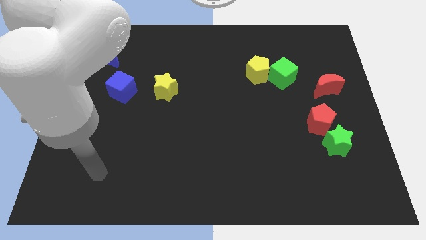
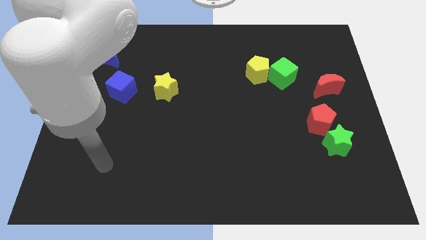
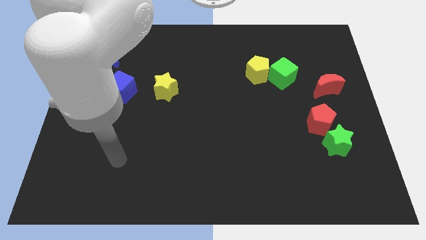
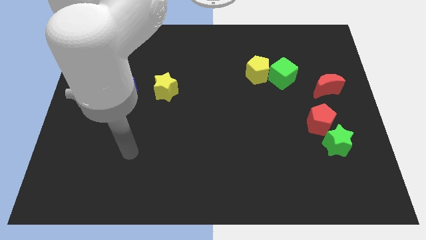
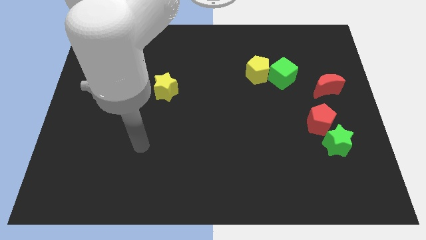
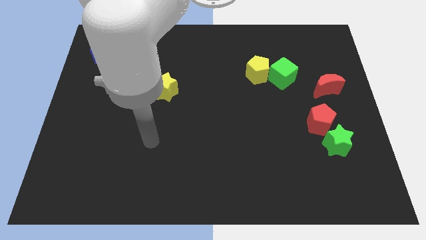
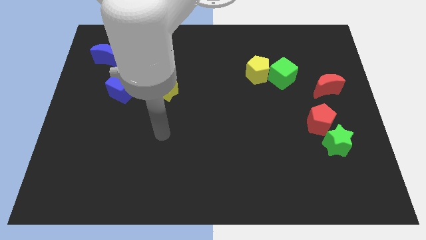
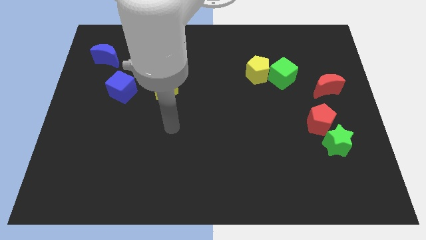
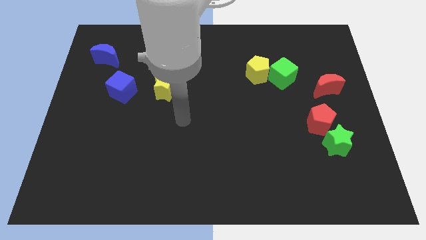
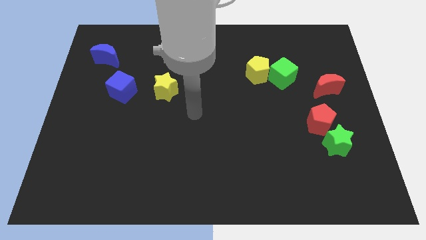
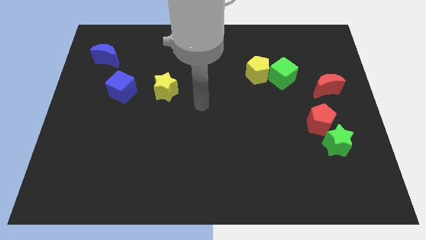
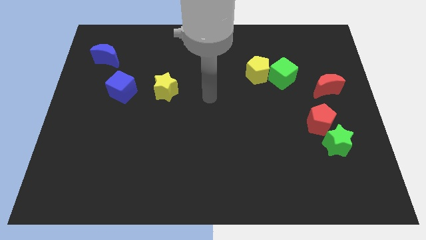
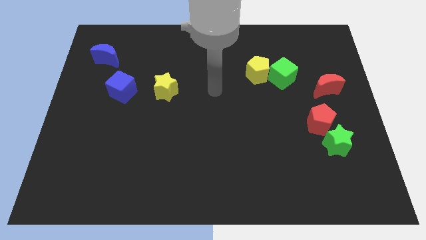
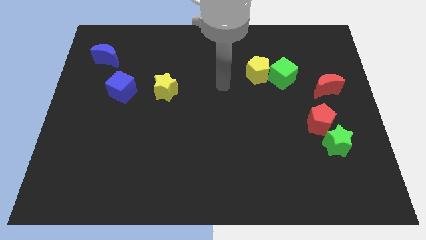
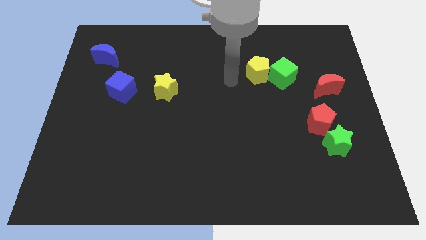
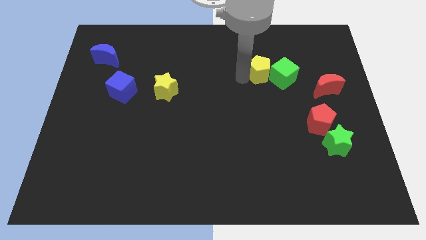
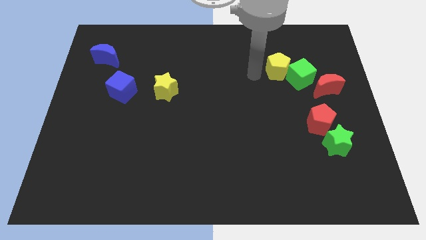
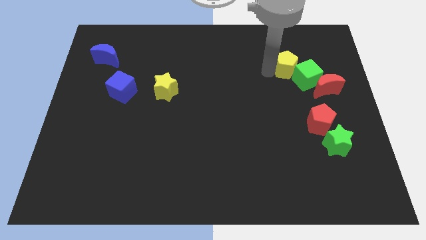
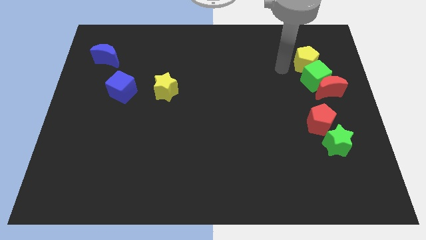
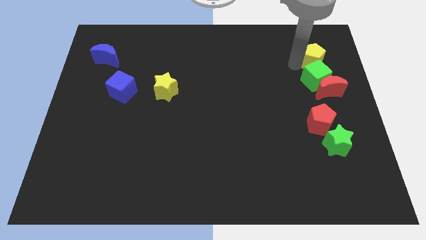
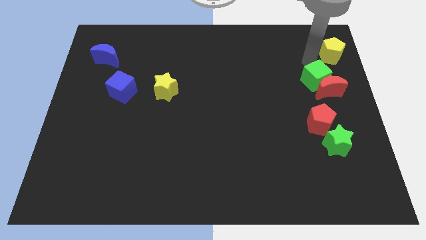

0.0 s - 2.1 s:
pull the green cube apart from the yellow pentagon

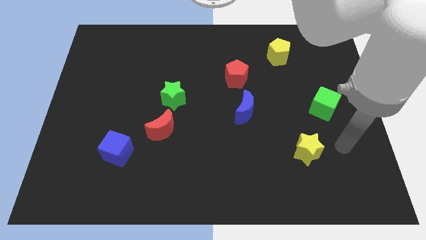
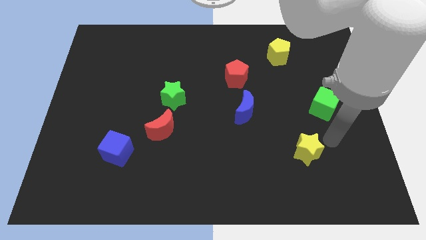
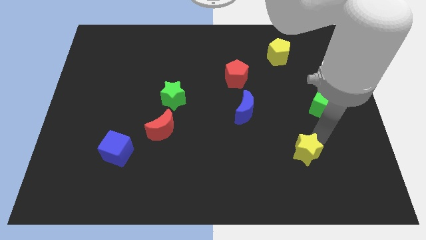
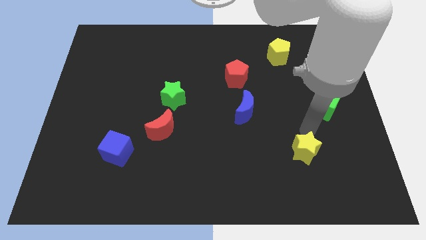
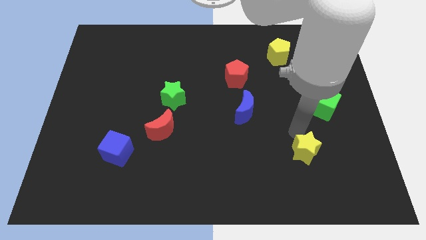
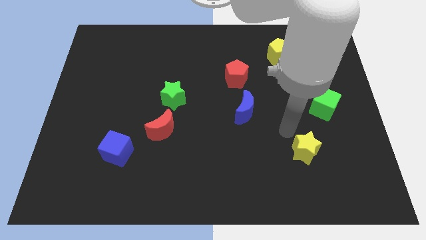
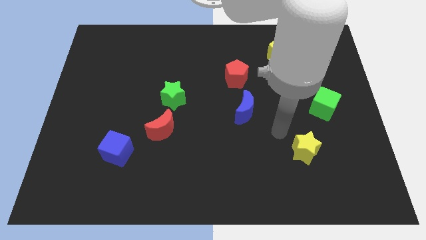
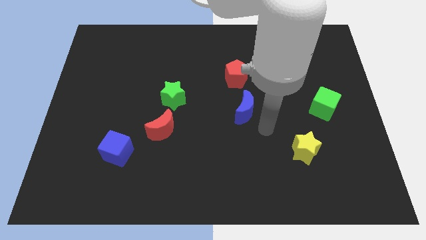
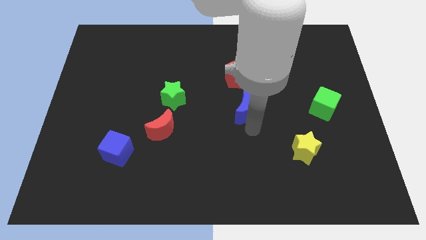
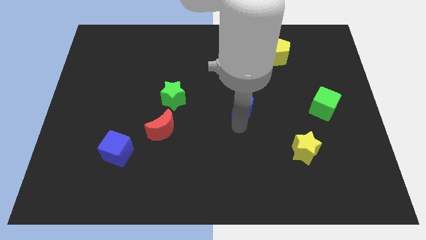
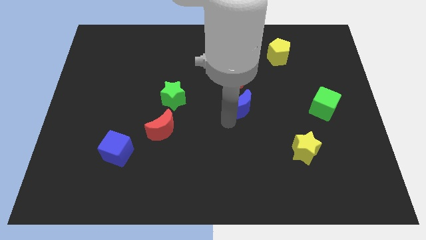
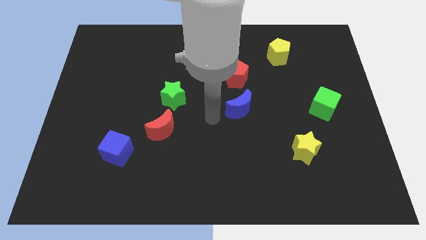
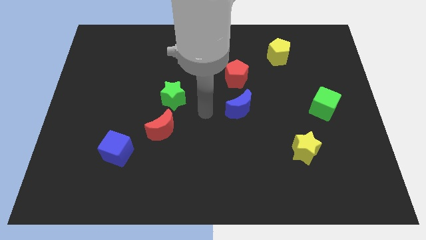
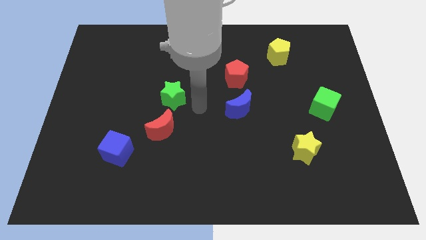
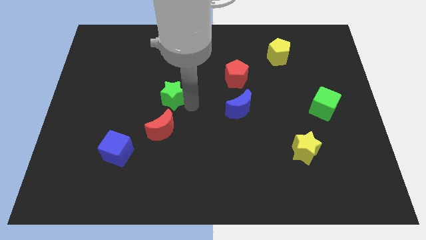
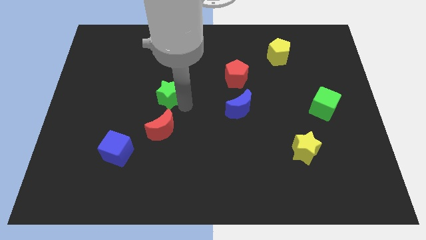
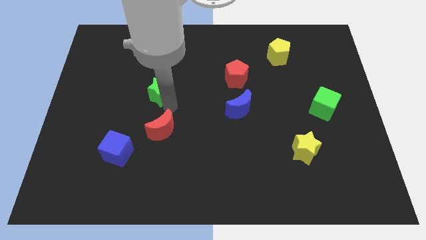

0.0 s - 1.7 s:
pull the red moon apart from the green star

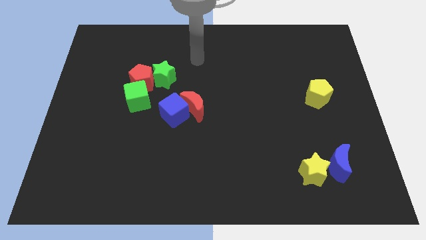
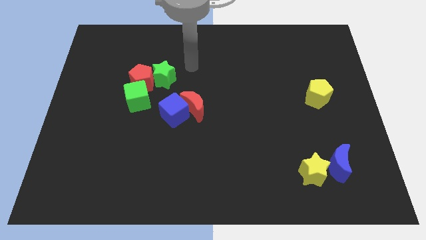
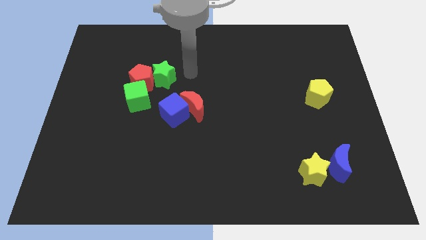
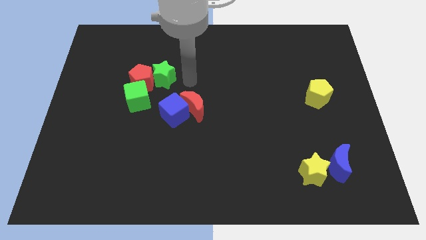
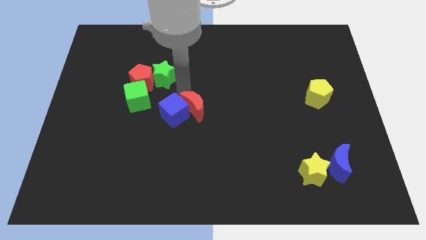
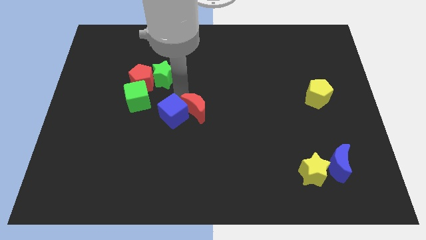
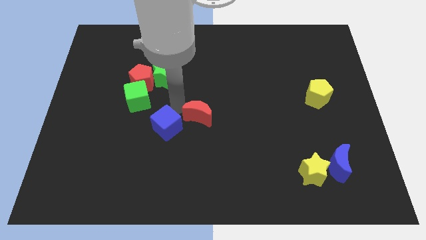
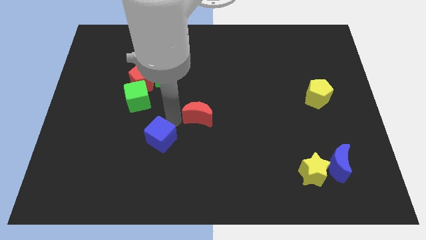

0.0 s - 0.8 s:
move the red moon away from the blue cube

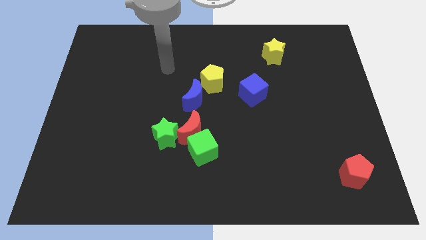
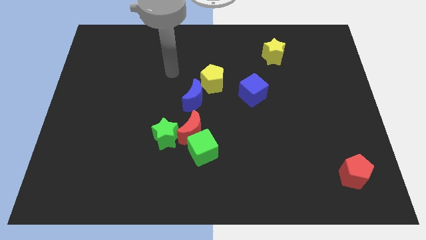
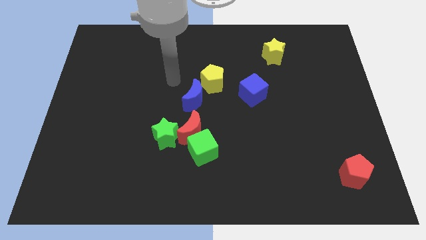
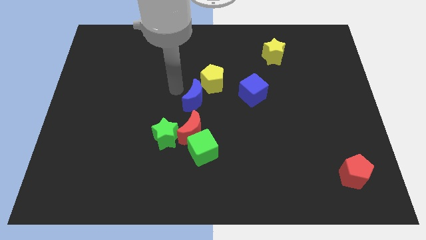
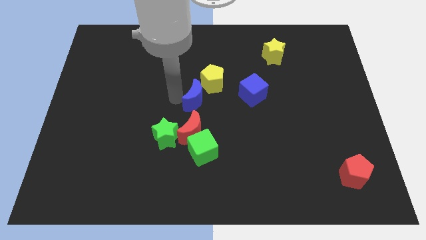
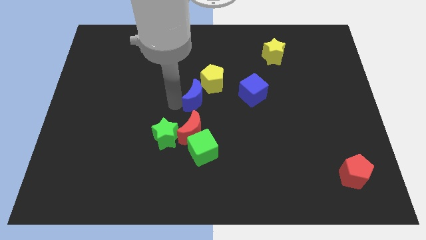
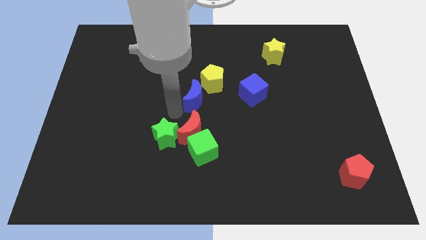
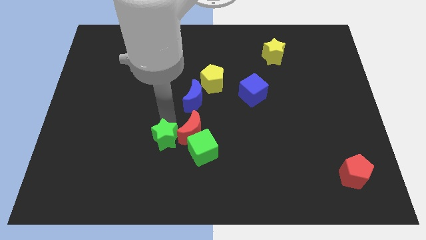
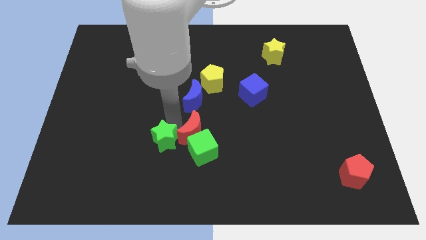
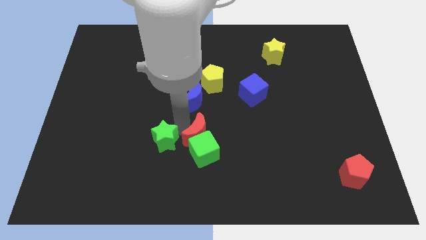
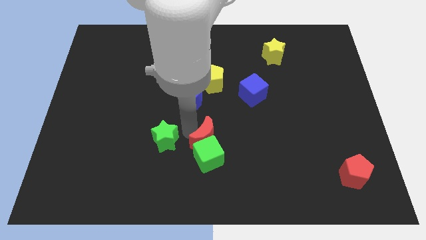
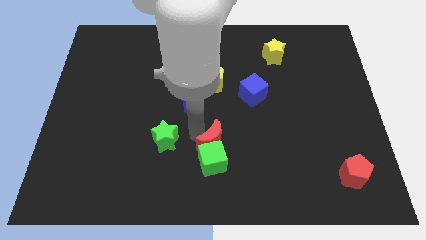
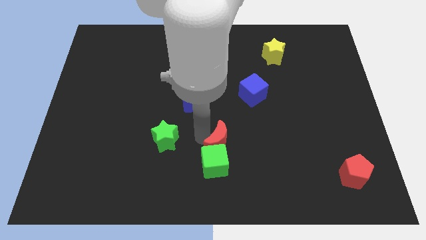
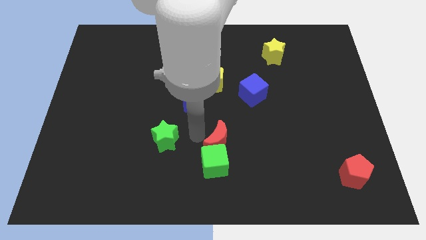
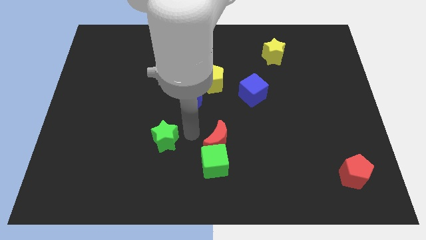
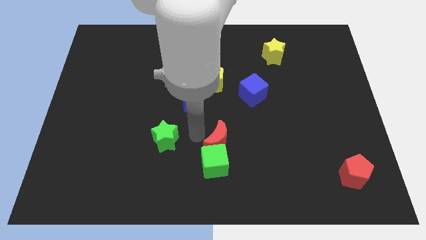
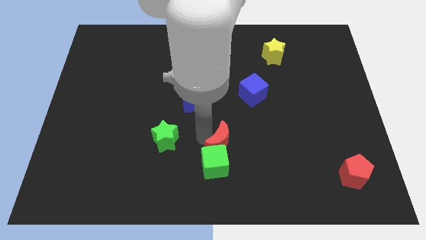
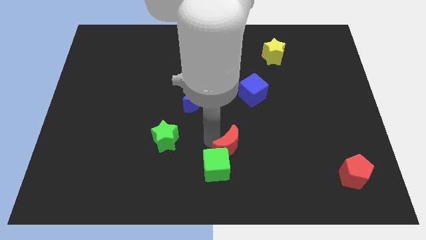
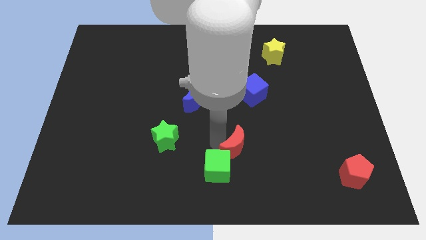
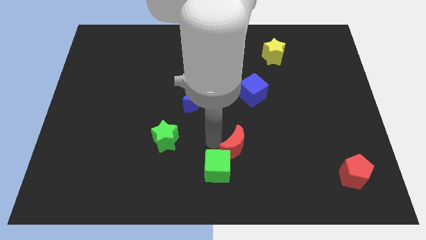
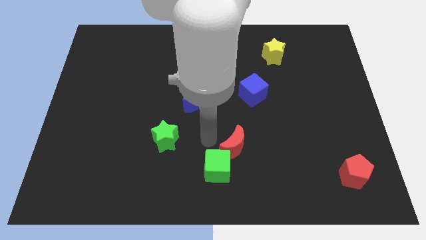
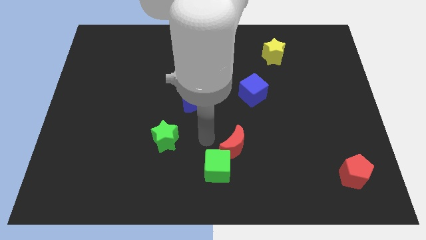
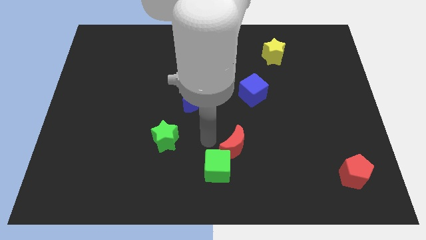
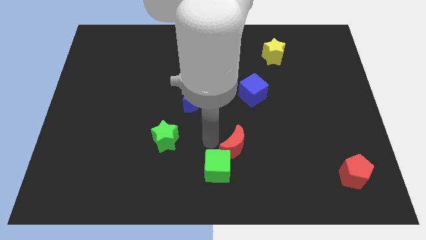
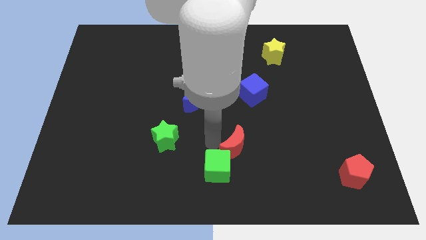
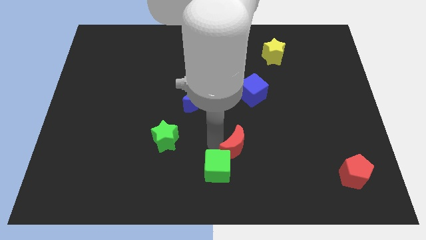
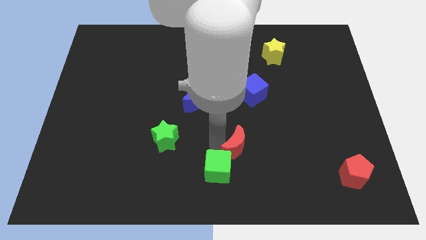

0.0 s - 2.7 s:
move the red moon away from the group

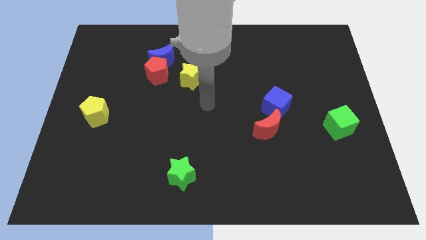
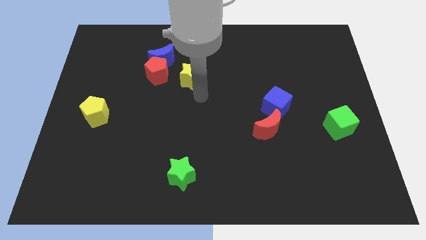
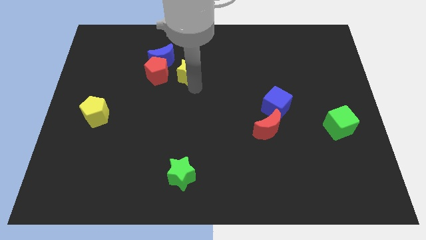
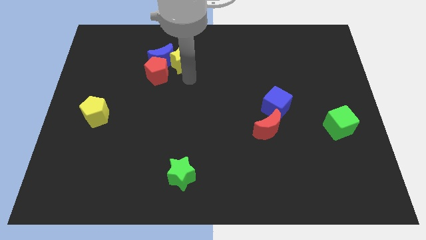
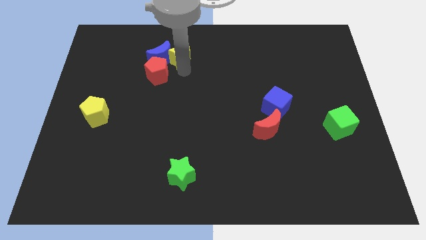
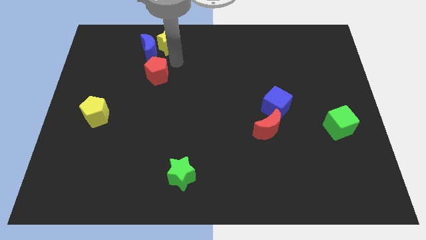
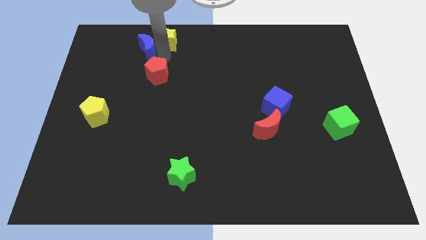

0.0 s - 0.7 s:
pull the red pentagon apart from the blue moon and yellow star

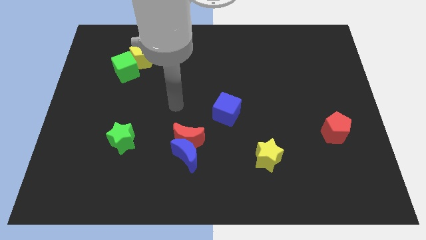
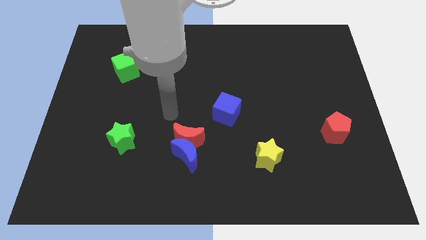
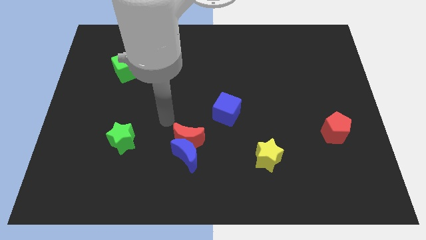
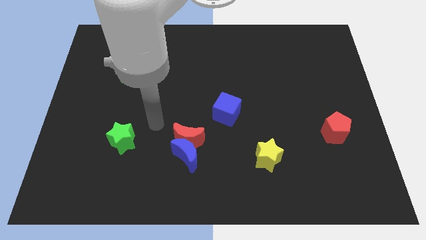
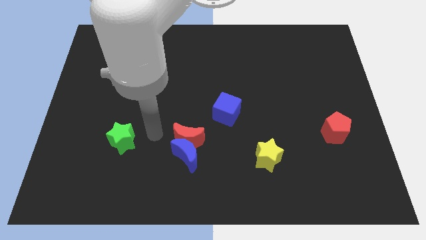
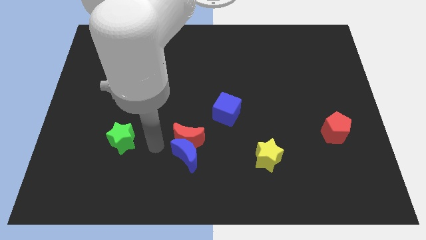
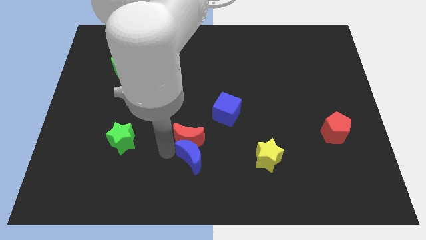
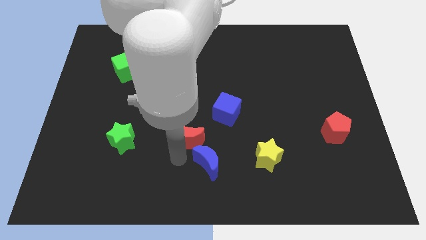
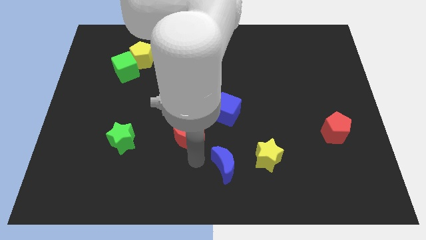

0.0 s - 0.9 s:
pull the red moon apart from the blue moon

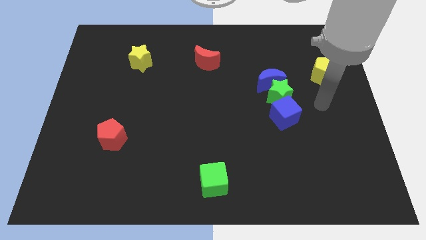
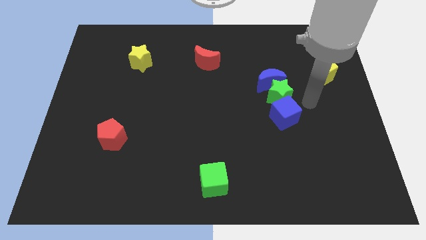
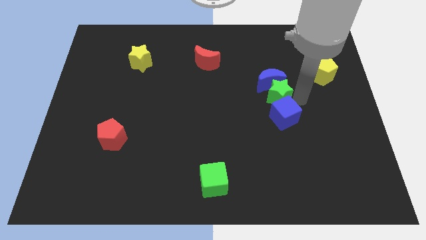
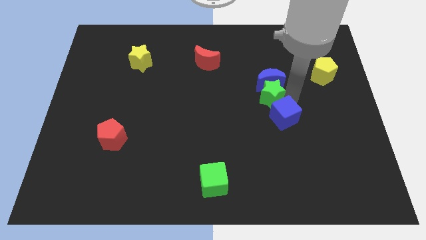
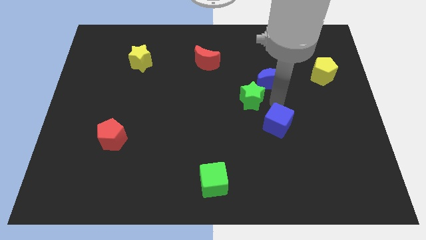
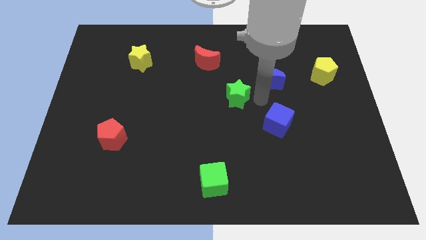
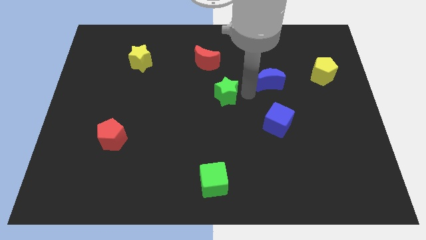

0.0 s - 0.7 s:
pull the blue moon apart from the green star
